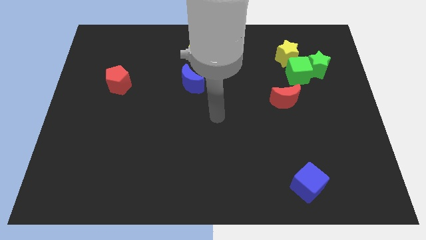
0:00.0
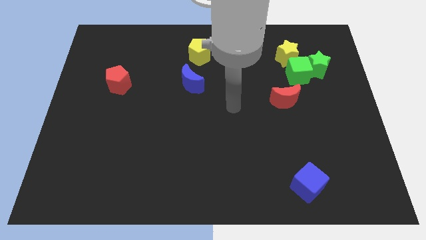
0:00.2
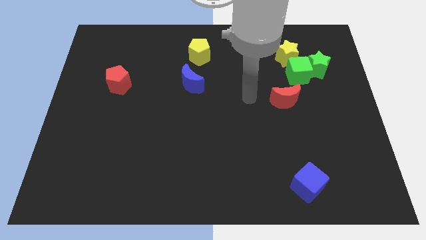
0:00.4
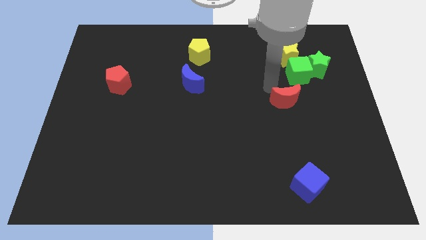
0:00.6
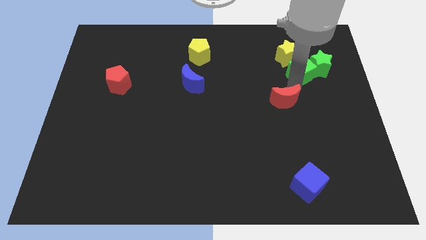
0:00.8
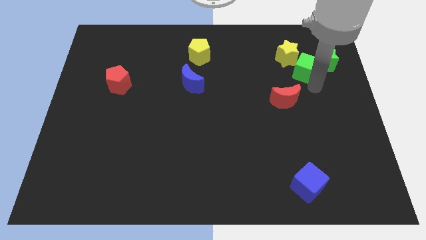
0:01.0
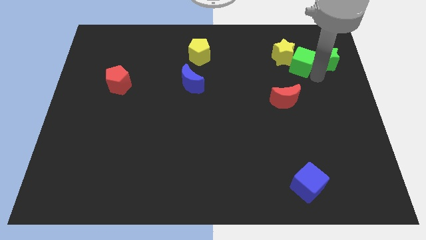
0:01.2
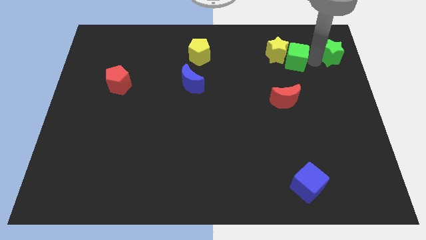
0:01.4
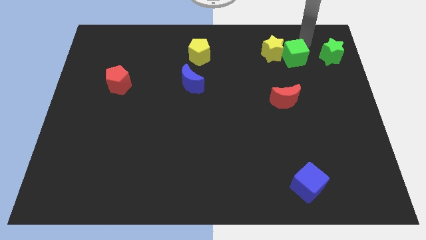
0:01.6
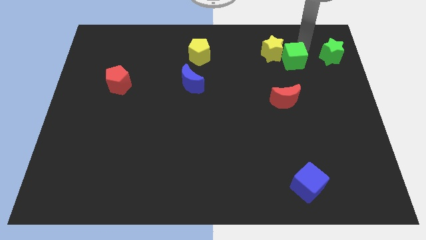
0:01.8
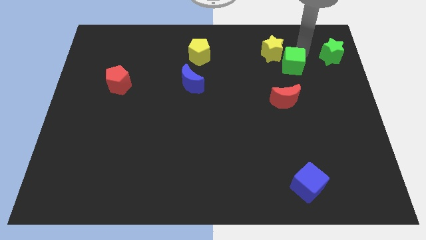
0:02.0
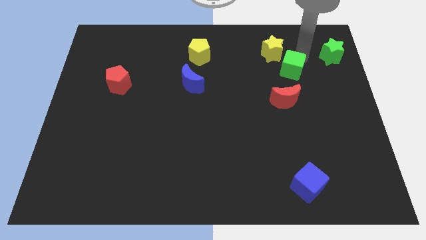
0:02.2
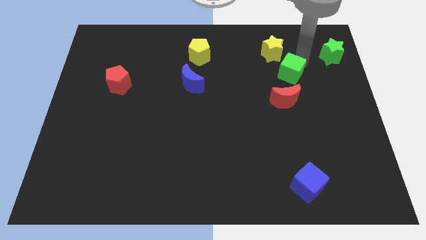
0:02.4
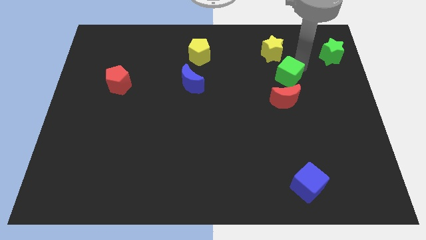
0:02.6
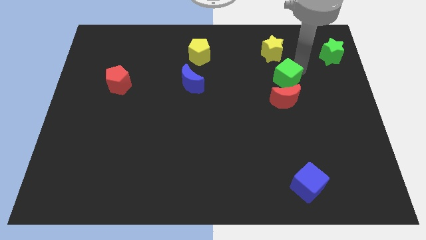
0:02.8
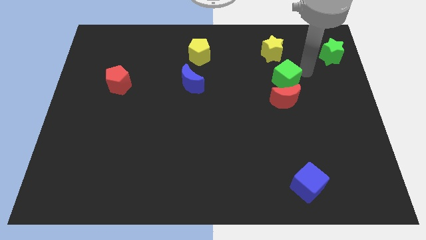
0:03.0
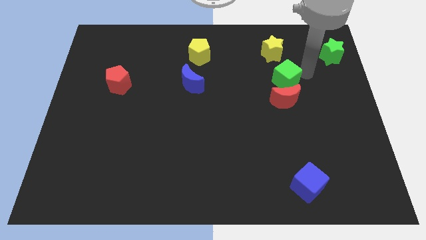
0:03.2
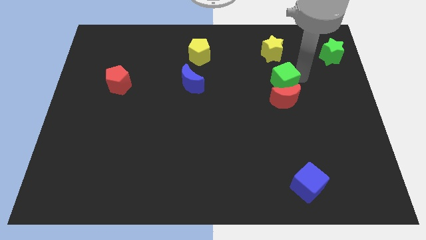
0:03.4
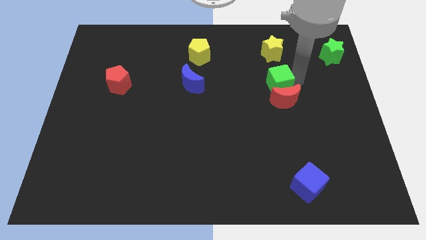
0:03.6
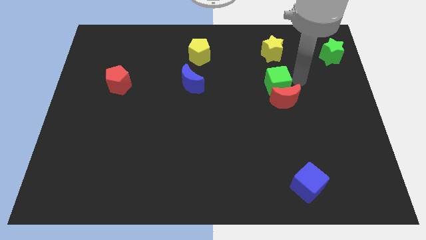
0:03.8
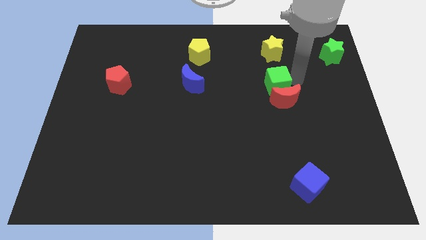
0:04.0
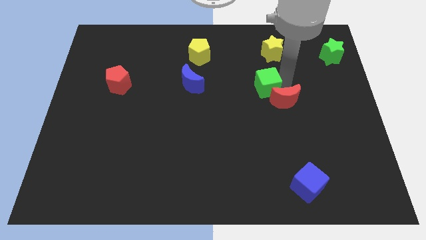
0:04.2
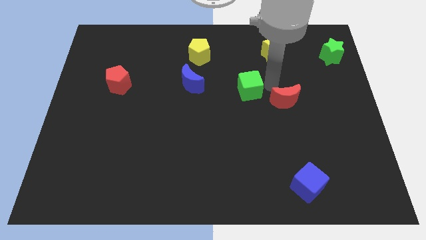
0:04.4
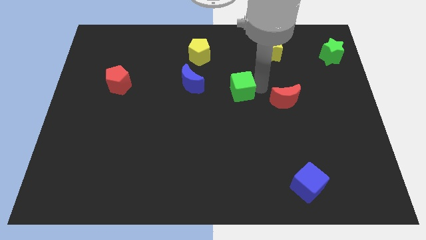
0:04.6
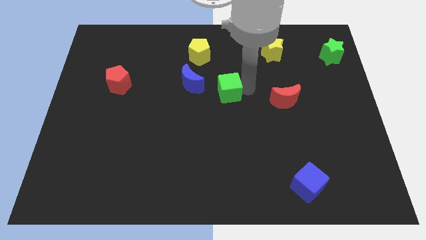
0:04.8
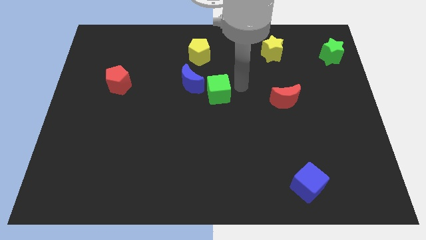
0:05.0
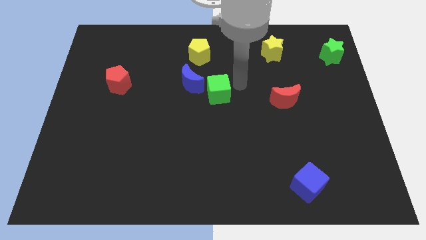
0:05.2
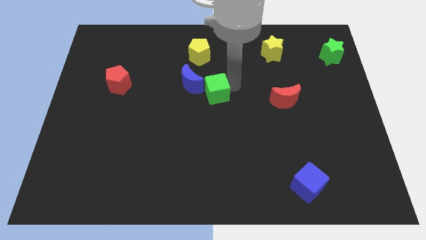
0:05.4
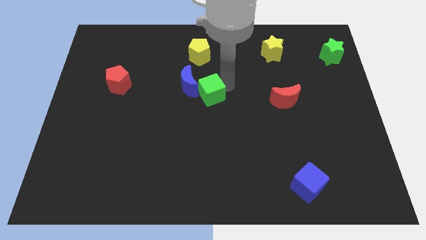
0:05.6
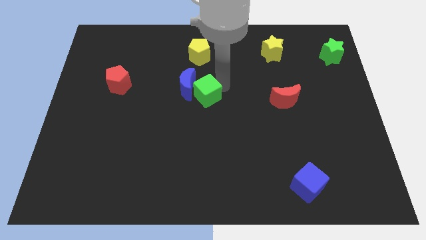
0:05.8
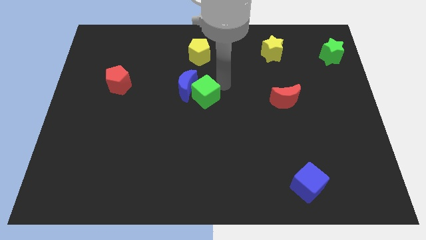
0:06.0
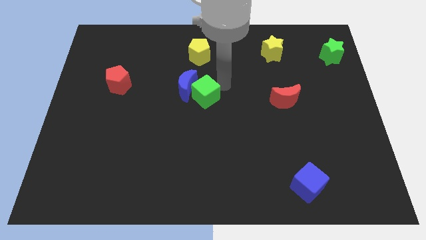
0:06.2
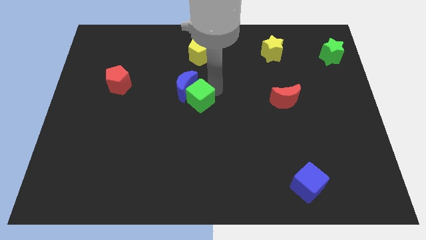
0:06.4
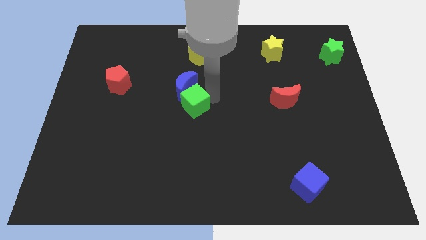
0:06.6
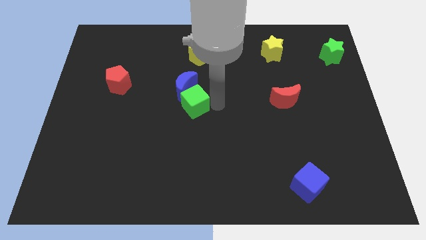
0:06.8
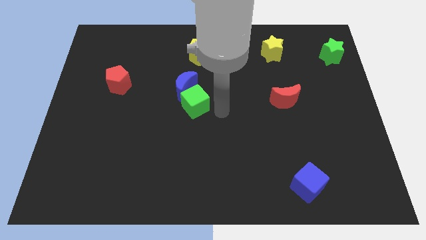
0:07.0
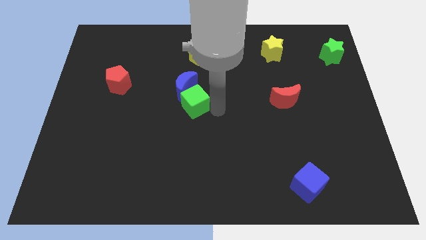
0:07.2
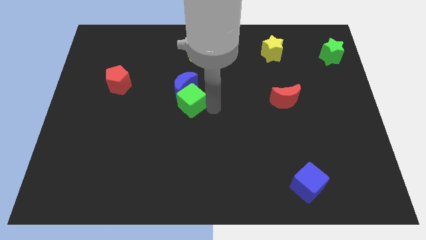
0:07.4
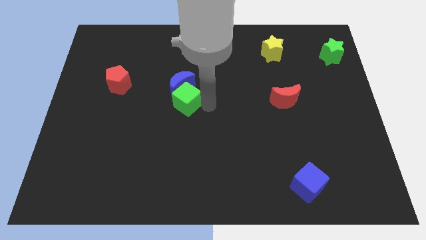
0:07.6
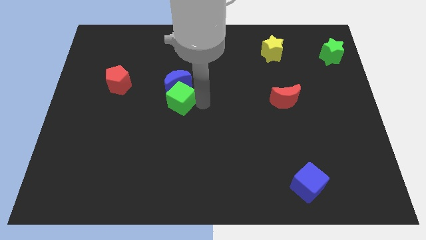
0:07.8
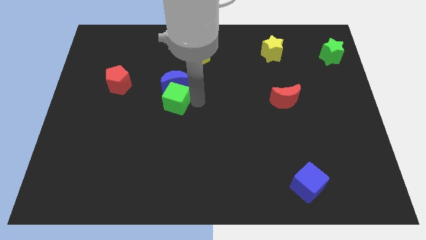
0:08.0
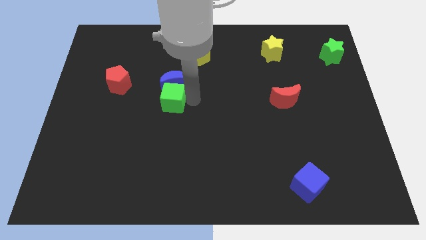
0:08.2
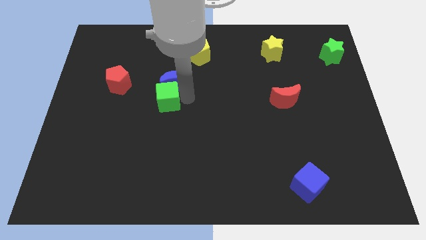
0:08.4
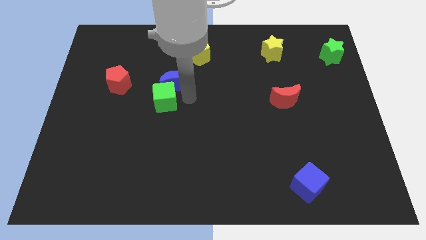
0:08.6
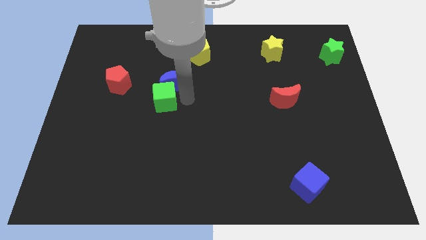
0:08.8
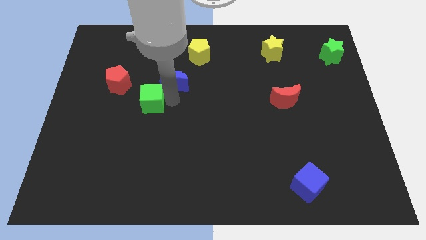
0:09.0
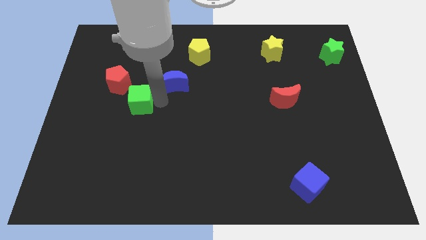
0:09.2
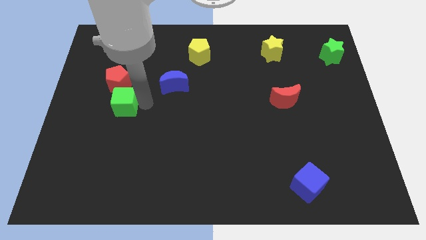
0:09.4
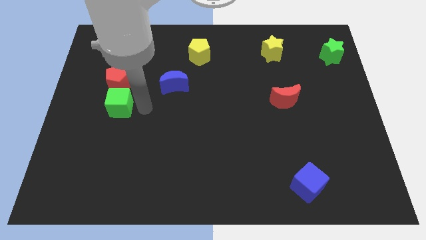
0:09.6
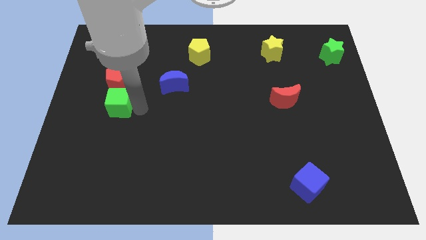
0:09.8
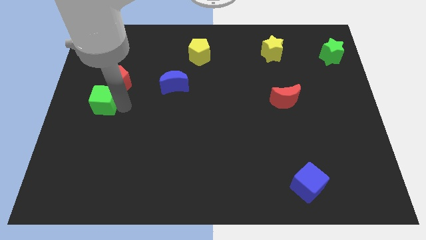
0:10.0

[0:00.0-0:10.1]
slide the green cube to the center left

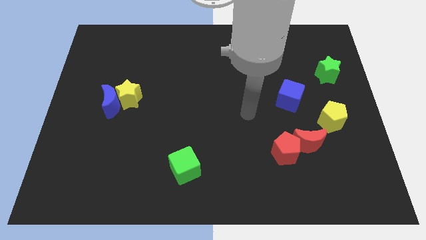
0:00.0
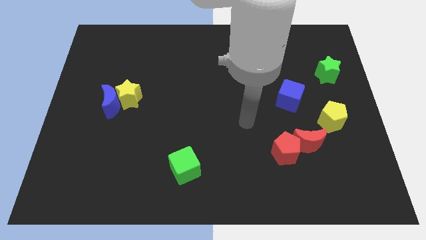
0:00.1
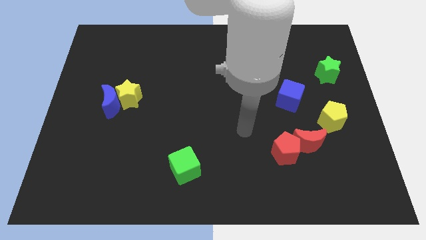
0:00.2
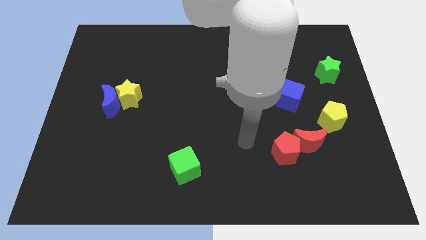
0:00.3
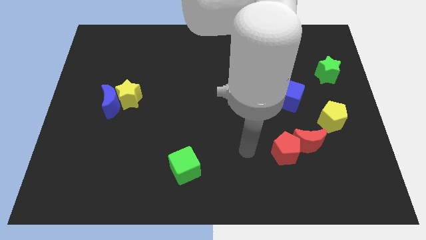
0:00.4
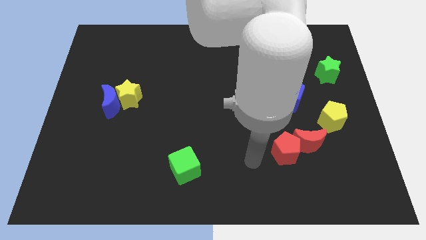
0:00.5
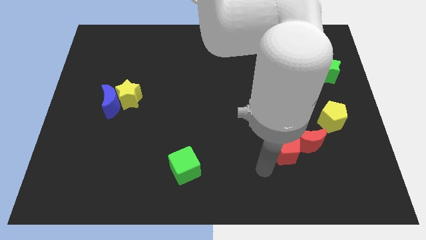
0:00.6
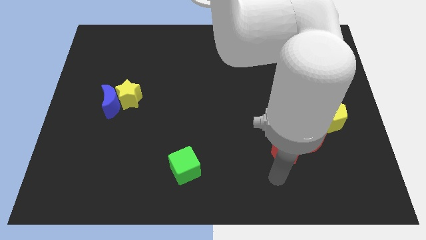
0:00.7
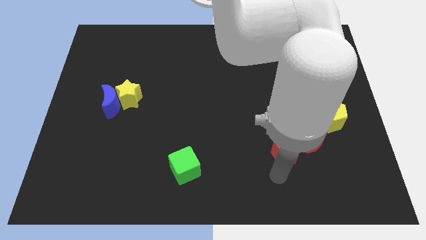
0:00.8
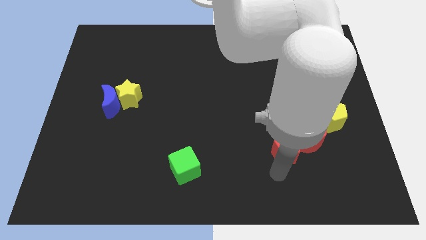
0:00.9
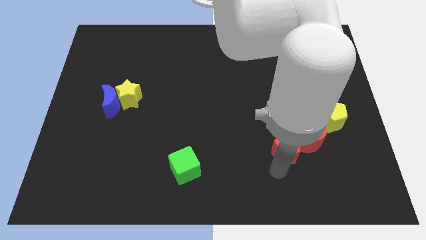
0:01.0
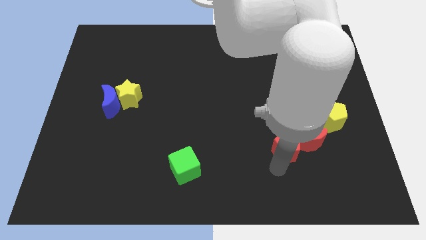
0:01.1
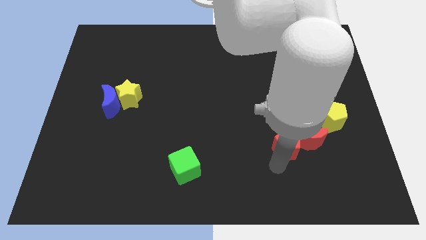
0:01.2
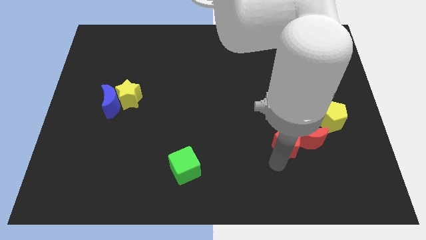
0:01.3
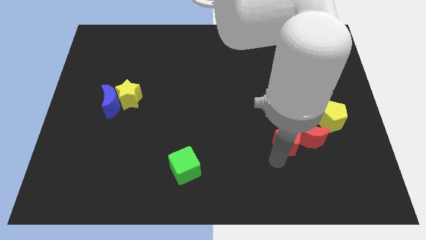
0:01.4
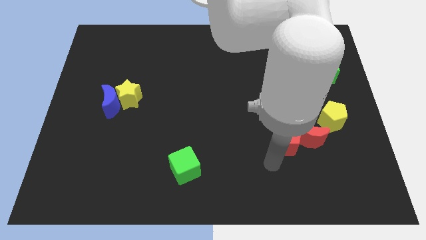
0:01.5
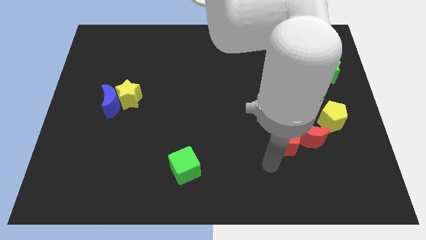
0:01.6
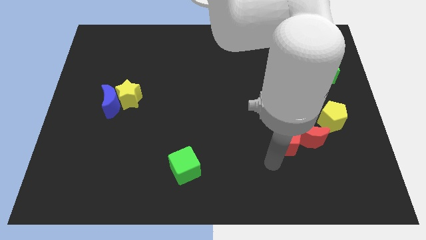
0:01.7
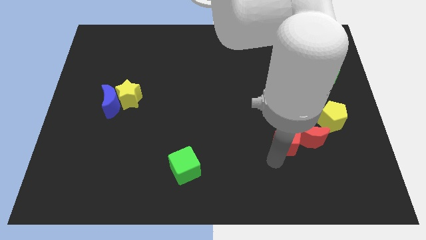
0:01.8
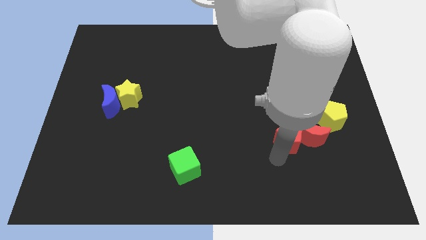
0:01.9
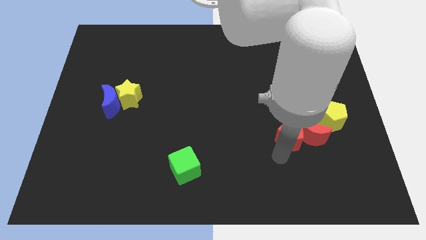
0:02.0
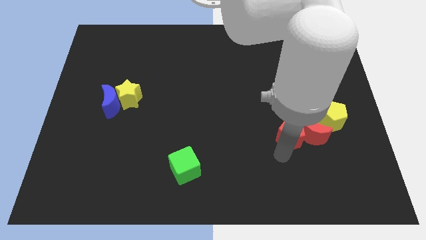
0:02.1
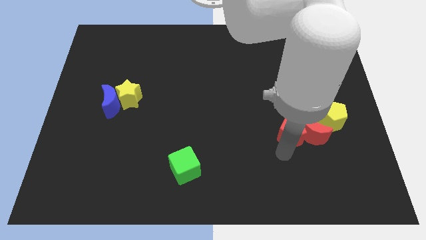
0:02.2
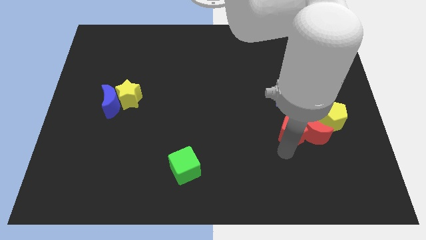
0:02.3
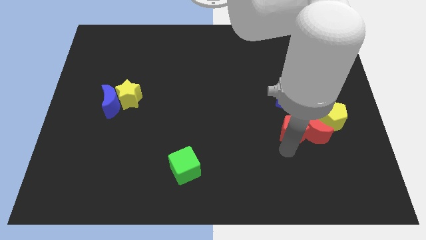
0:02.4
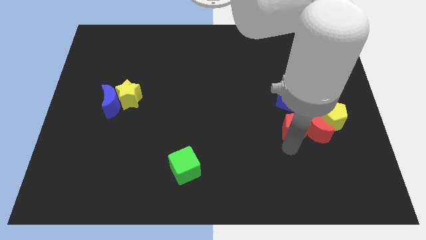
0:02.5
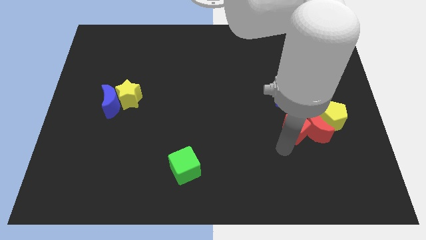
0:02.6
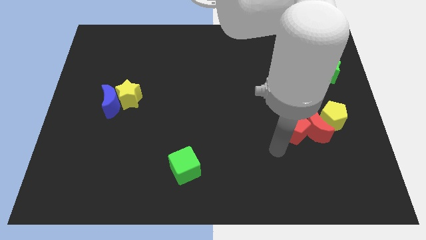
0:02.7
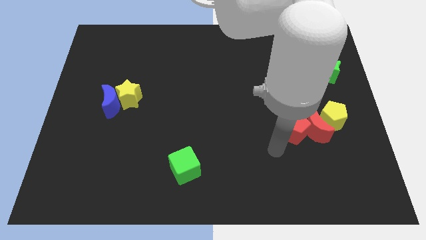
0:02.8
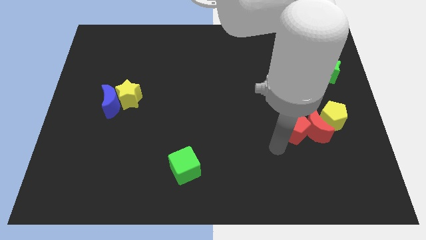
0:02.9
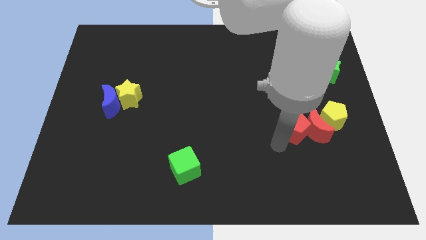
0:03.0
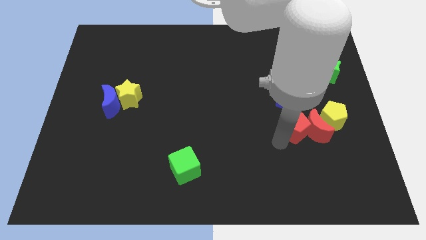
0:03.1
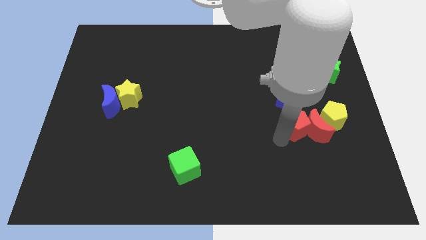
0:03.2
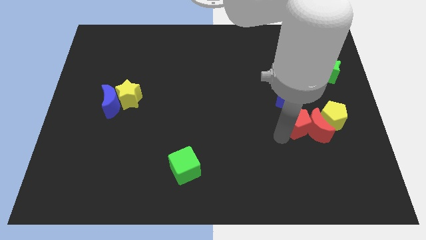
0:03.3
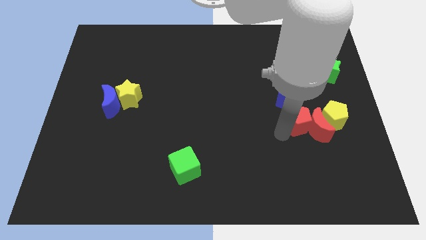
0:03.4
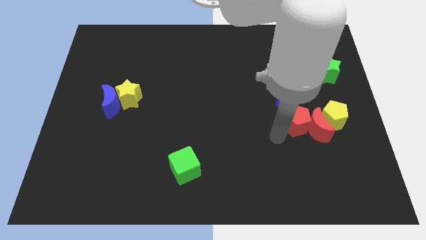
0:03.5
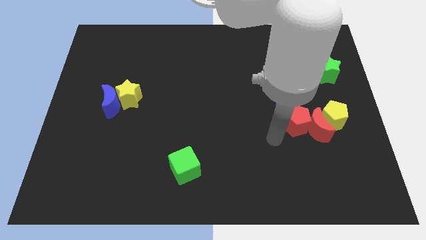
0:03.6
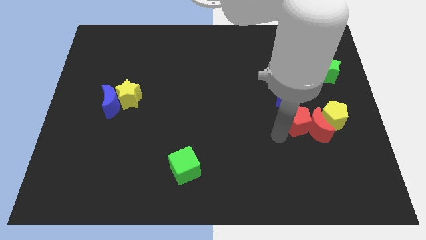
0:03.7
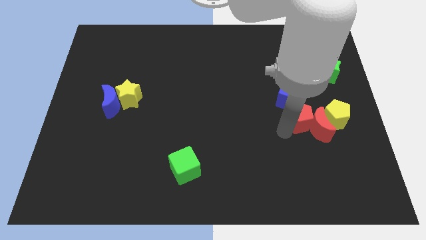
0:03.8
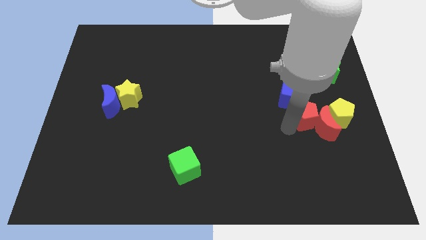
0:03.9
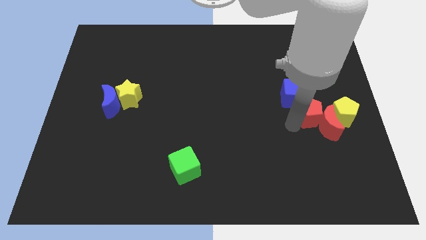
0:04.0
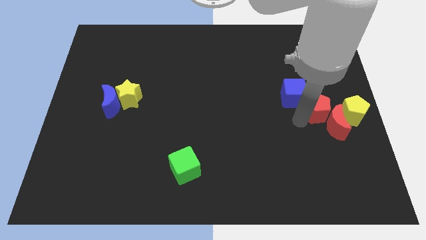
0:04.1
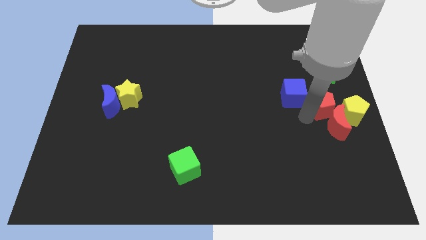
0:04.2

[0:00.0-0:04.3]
move the red pentagon to the center right
